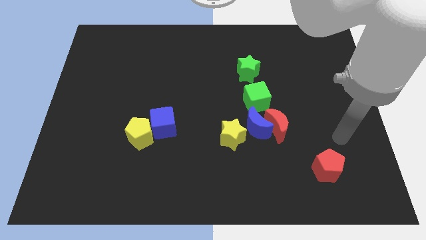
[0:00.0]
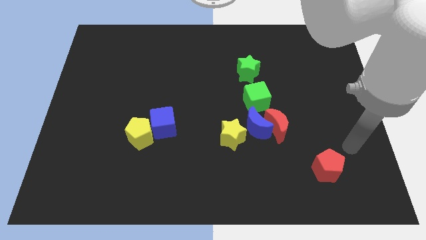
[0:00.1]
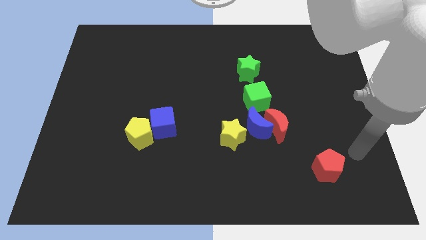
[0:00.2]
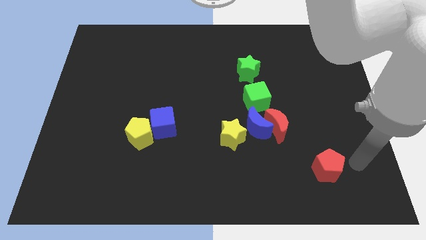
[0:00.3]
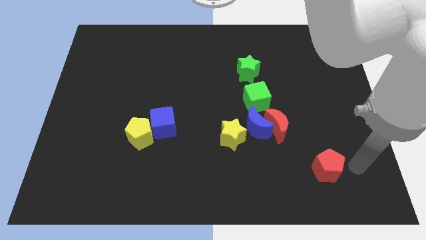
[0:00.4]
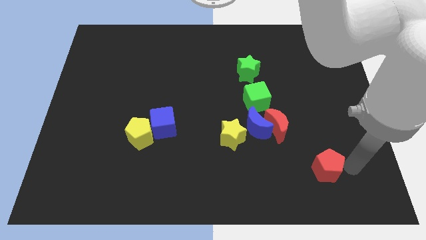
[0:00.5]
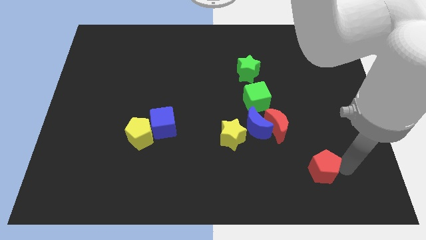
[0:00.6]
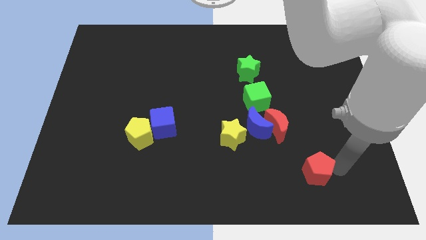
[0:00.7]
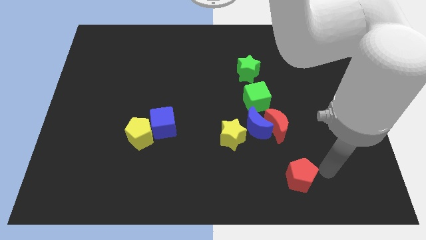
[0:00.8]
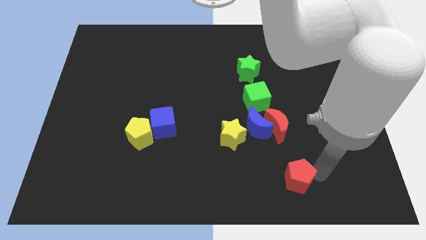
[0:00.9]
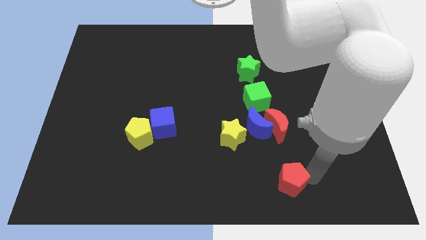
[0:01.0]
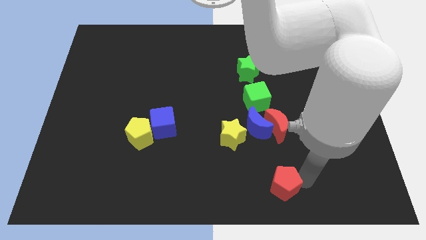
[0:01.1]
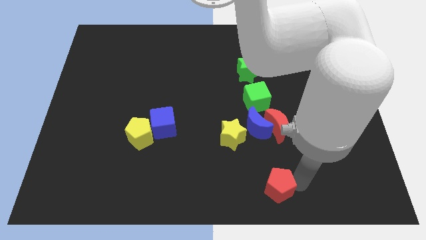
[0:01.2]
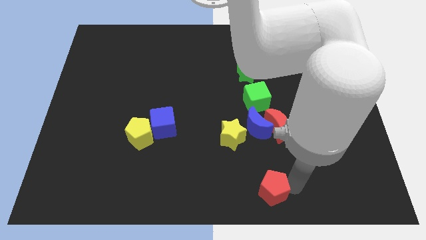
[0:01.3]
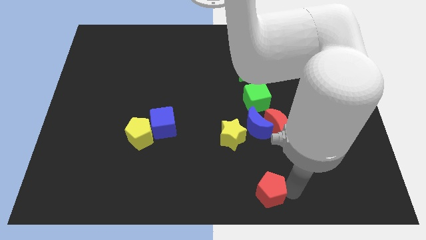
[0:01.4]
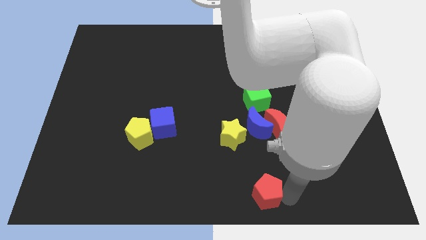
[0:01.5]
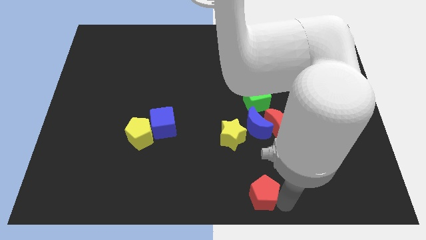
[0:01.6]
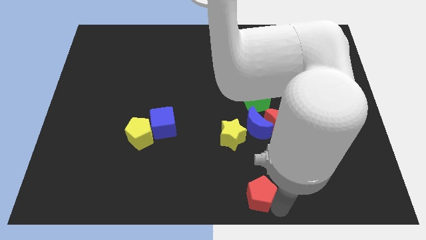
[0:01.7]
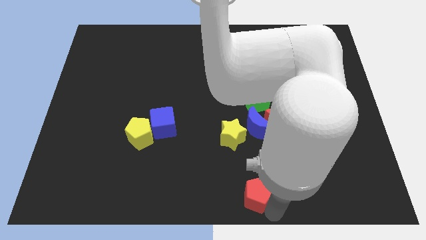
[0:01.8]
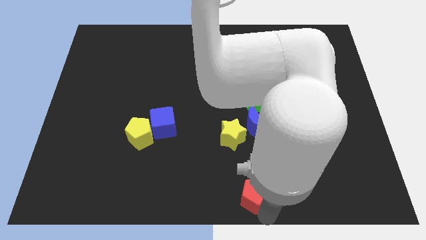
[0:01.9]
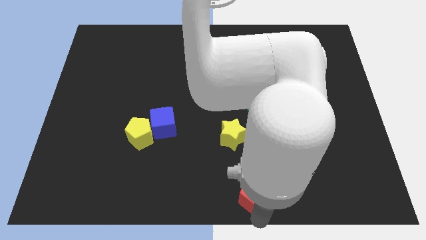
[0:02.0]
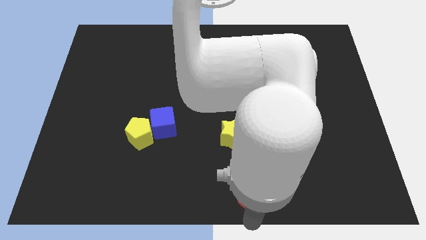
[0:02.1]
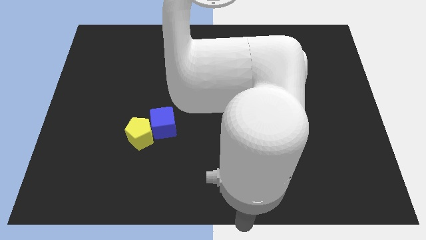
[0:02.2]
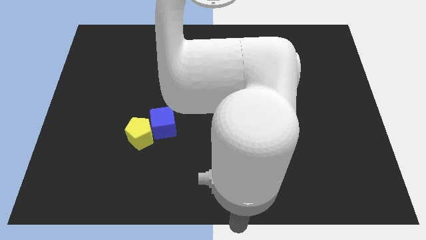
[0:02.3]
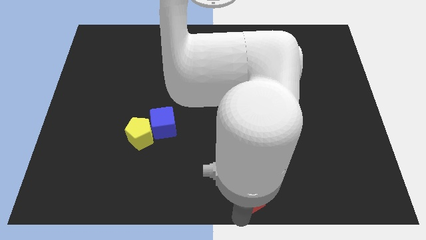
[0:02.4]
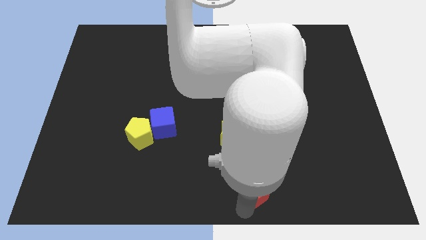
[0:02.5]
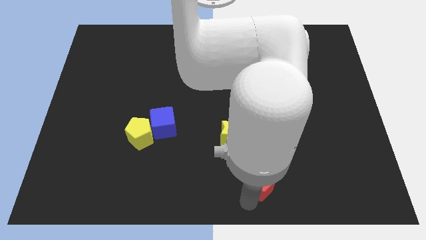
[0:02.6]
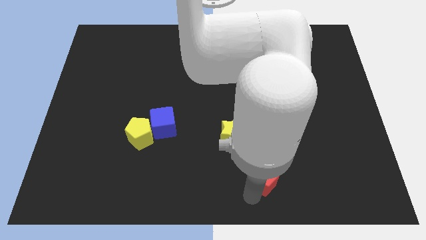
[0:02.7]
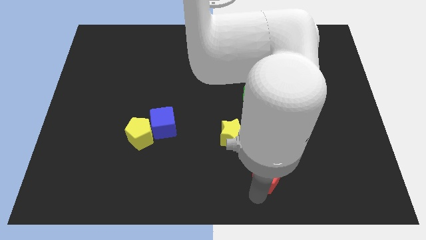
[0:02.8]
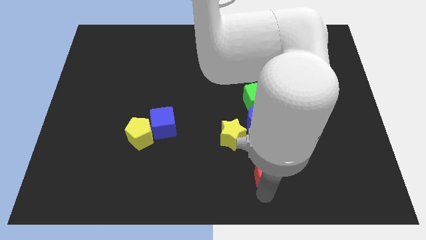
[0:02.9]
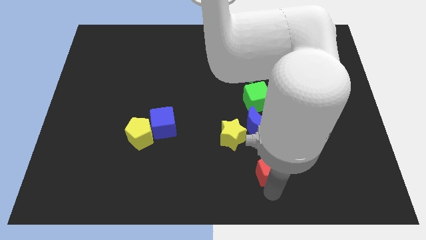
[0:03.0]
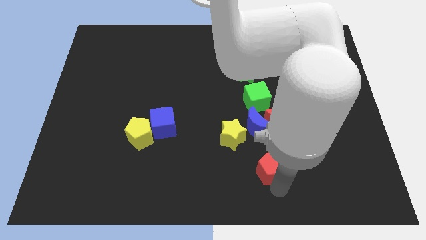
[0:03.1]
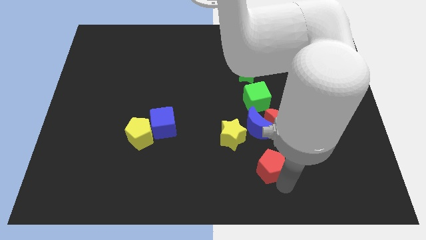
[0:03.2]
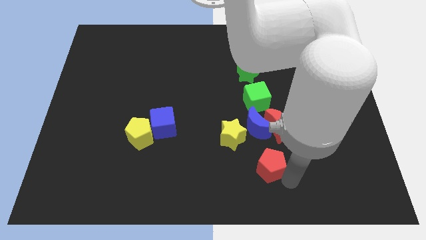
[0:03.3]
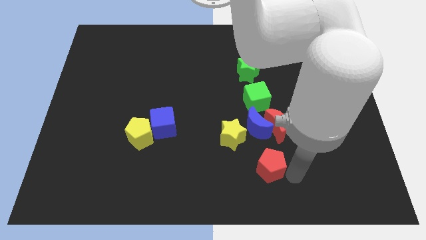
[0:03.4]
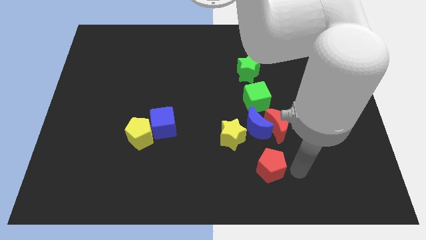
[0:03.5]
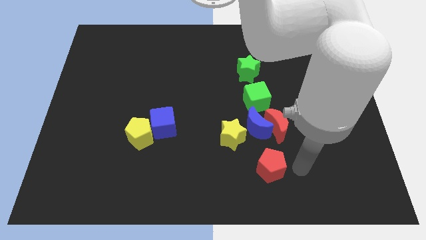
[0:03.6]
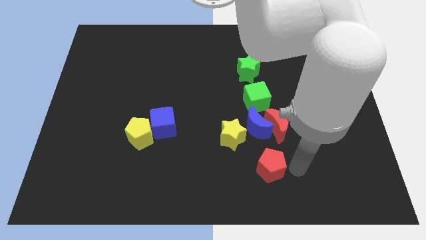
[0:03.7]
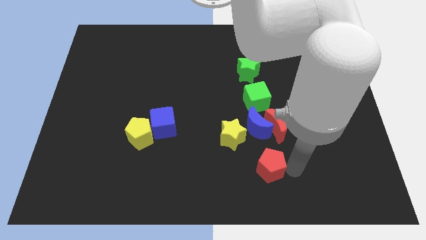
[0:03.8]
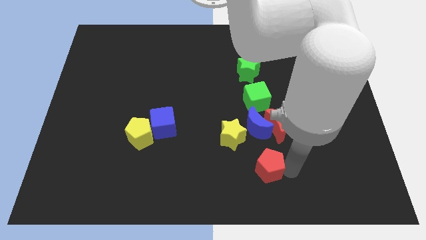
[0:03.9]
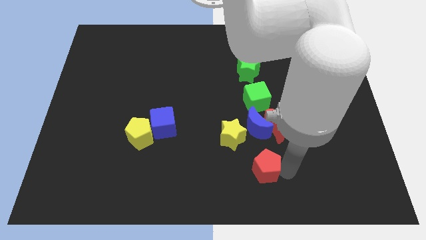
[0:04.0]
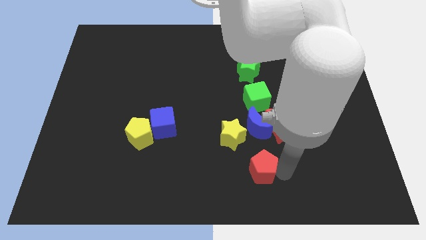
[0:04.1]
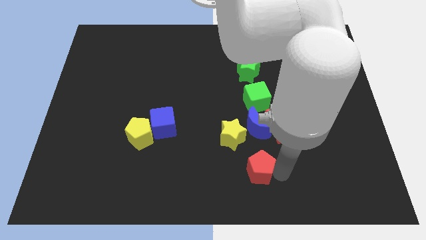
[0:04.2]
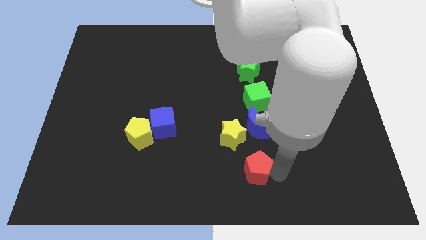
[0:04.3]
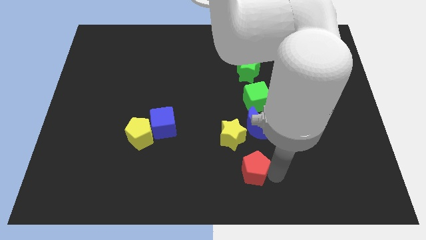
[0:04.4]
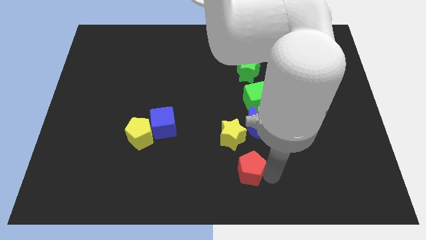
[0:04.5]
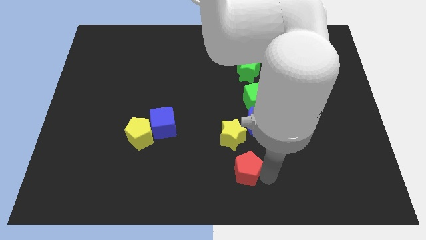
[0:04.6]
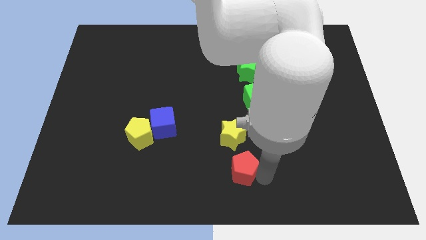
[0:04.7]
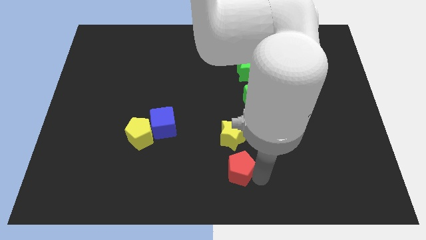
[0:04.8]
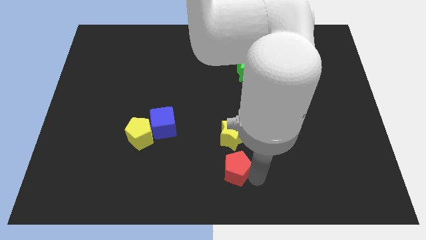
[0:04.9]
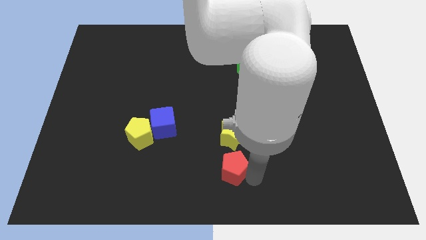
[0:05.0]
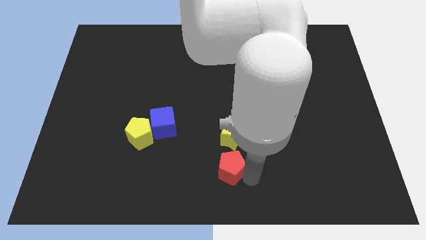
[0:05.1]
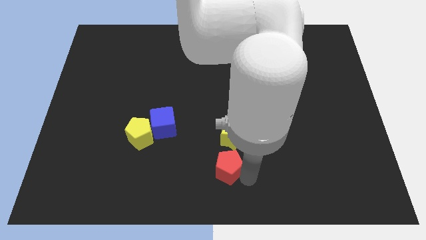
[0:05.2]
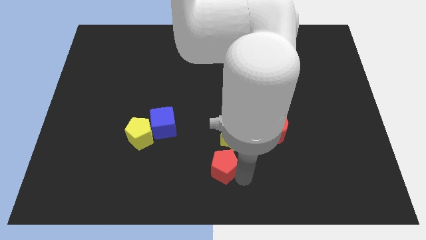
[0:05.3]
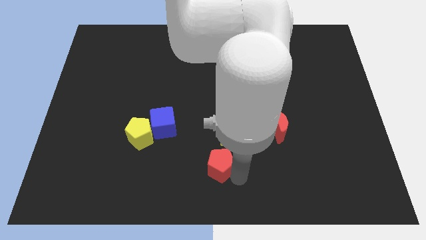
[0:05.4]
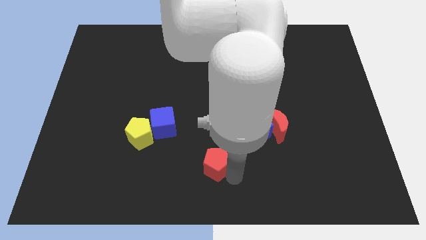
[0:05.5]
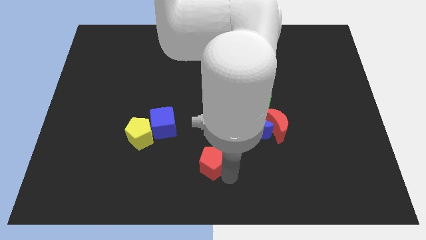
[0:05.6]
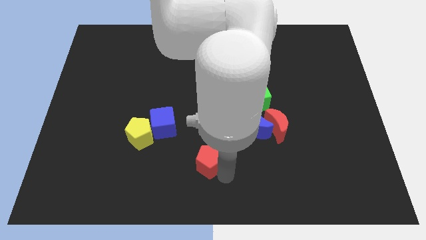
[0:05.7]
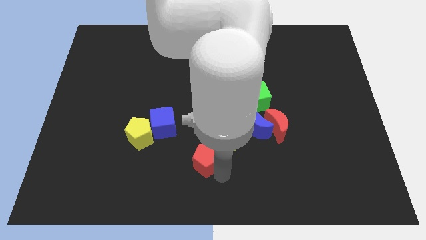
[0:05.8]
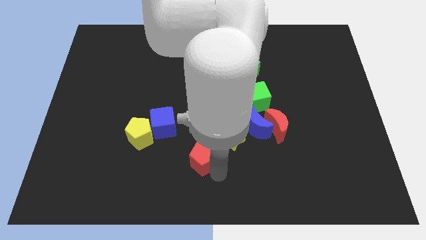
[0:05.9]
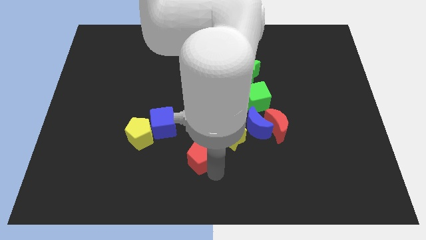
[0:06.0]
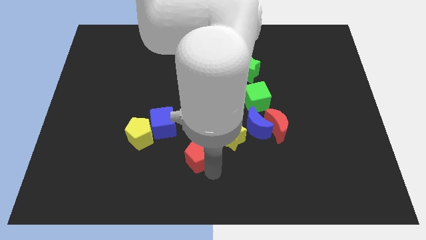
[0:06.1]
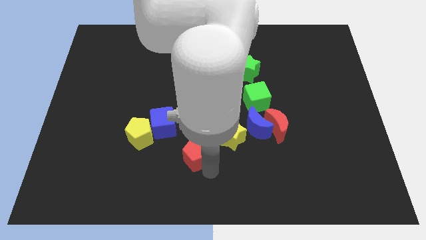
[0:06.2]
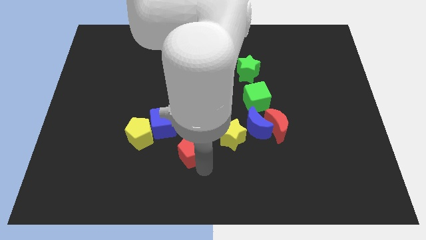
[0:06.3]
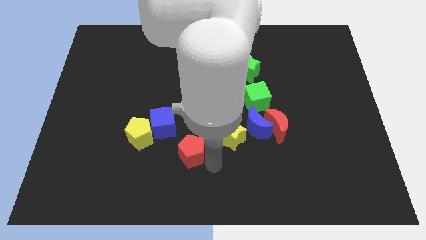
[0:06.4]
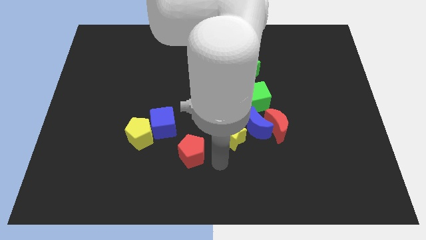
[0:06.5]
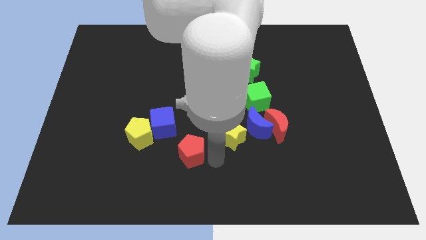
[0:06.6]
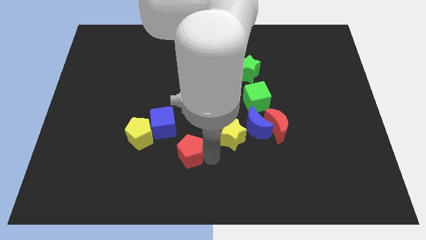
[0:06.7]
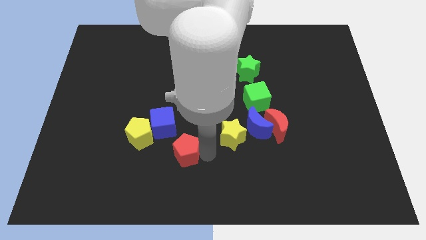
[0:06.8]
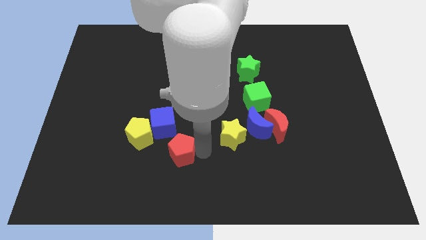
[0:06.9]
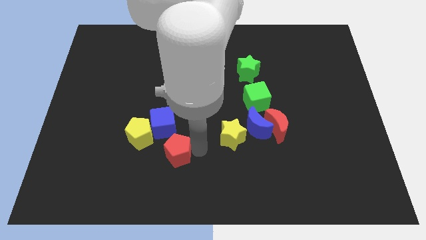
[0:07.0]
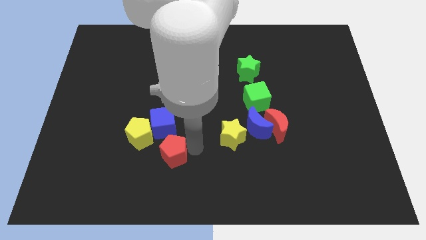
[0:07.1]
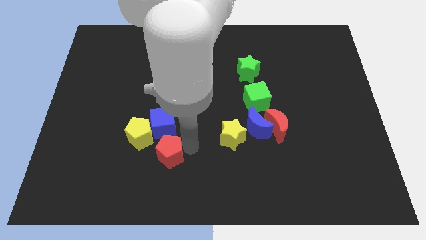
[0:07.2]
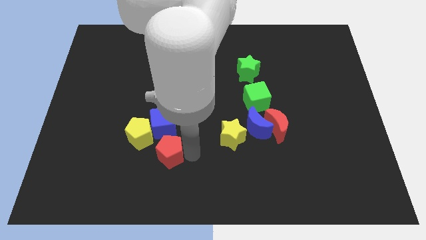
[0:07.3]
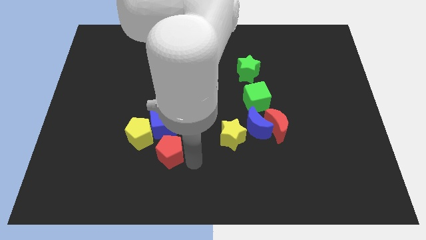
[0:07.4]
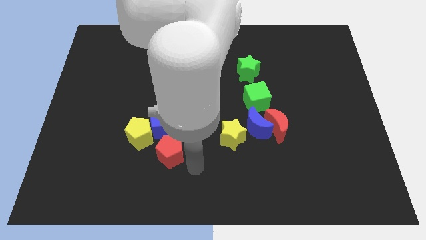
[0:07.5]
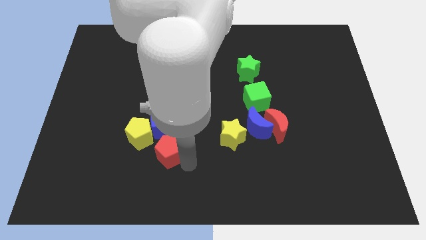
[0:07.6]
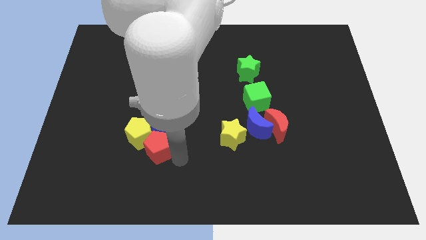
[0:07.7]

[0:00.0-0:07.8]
move the red pentagon towards the yellow pentagon
